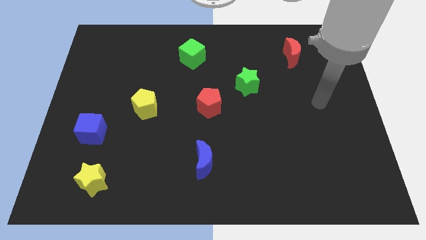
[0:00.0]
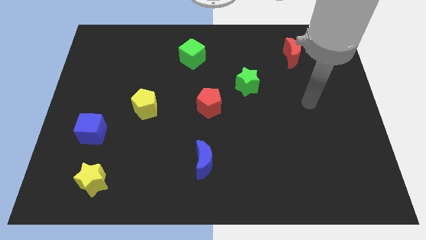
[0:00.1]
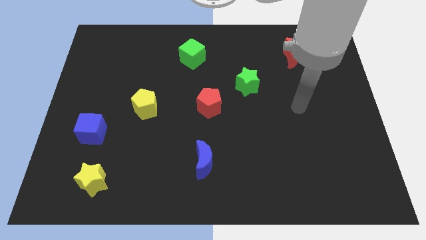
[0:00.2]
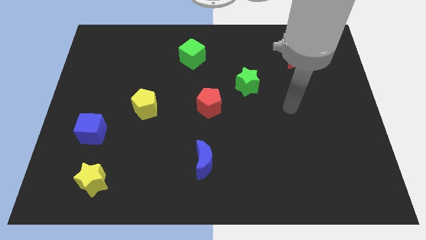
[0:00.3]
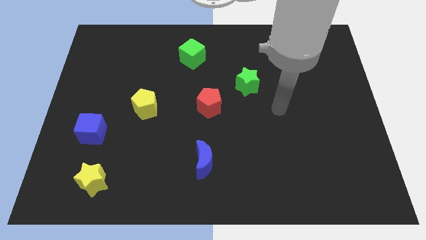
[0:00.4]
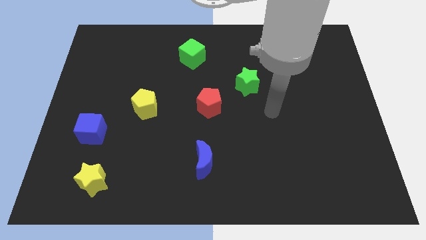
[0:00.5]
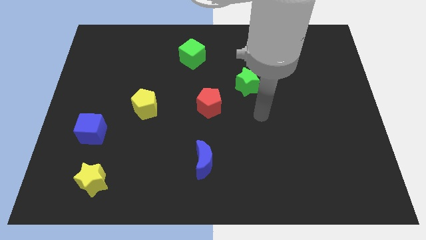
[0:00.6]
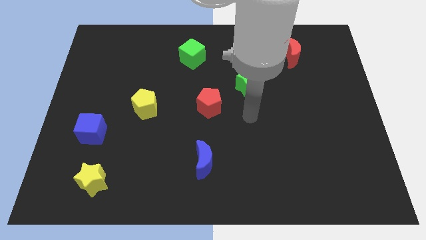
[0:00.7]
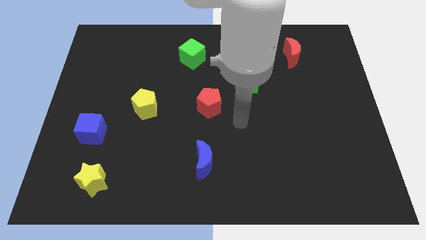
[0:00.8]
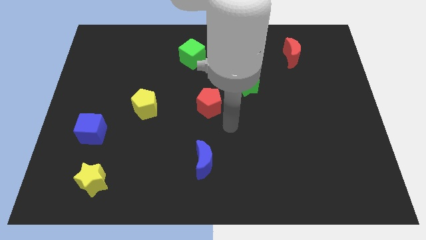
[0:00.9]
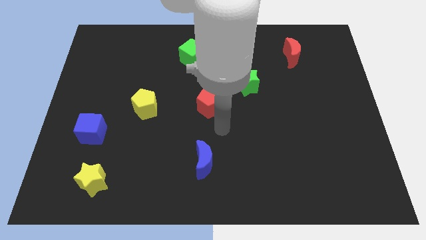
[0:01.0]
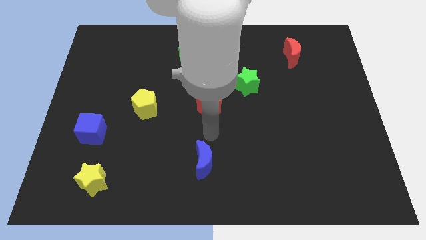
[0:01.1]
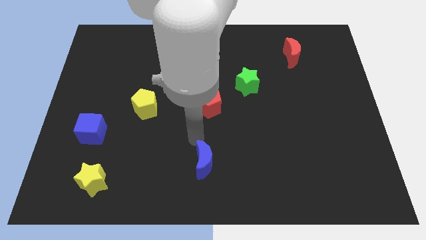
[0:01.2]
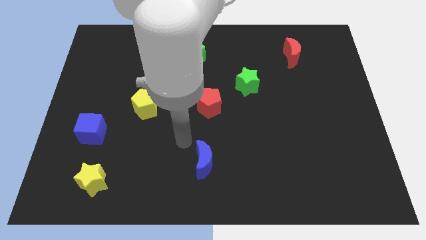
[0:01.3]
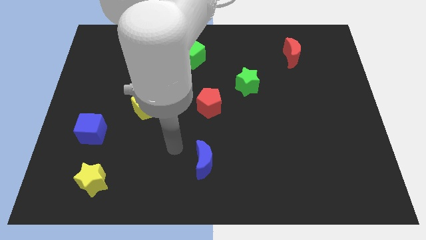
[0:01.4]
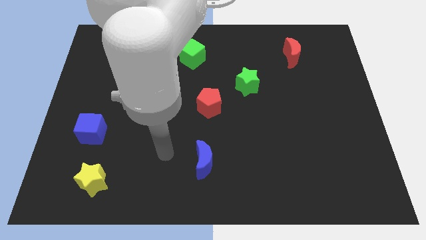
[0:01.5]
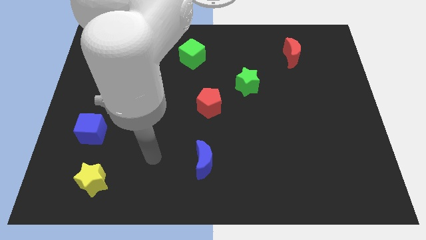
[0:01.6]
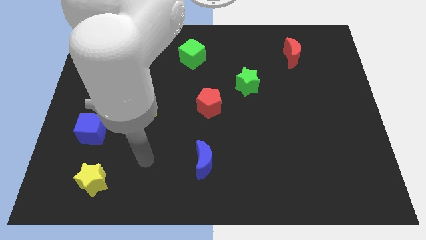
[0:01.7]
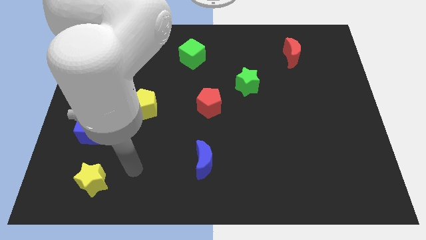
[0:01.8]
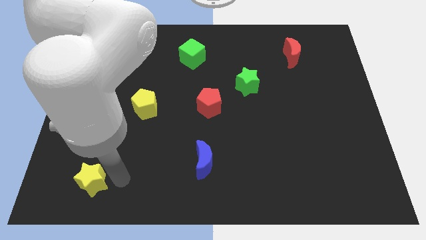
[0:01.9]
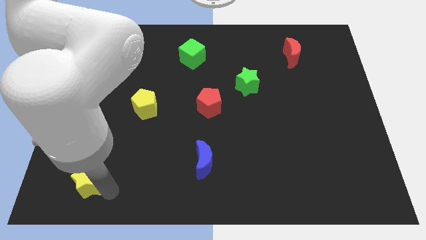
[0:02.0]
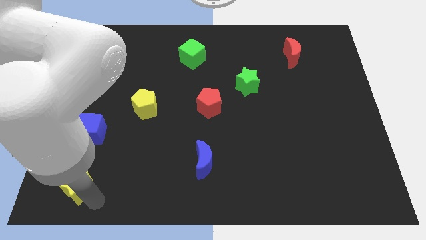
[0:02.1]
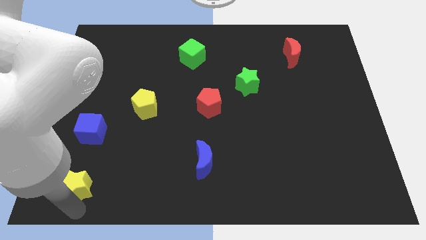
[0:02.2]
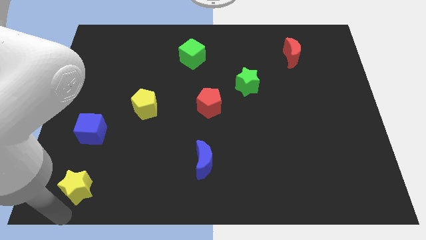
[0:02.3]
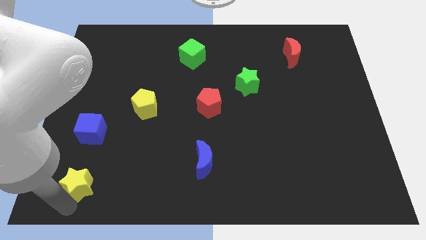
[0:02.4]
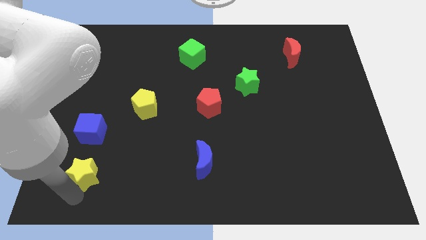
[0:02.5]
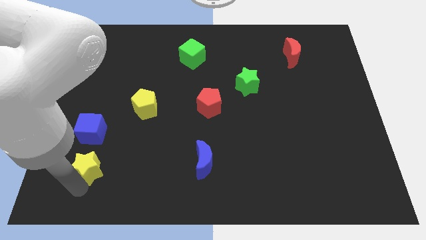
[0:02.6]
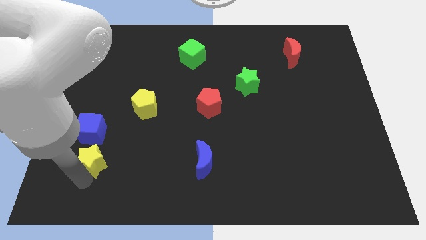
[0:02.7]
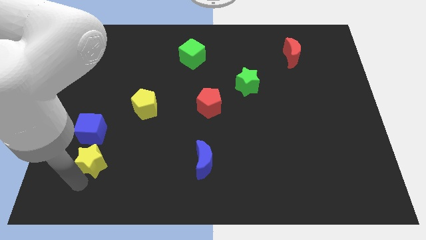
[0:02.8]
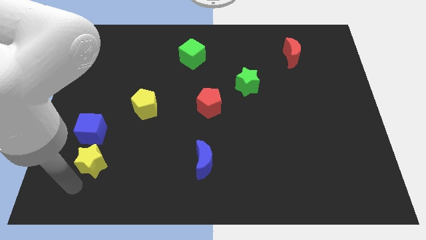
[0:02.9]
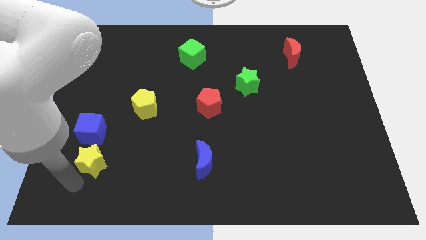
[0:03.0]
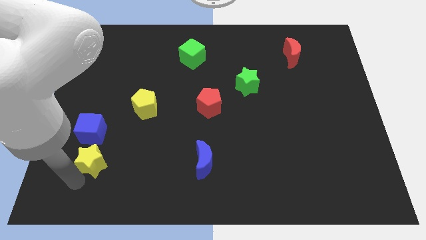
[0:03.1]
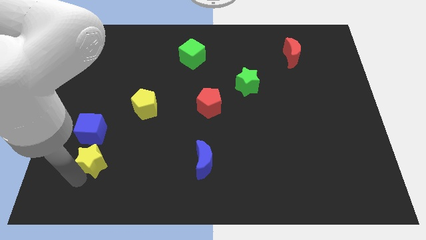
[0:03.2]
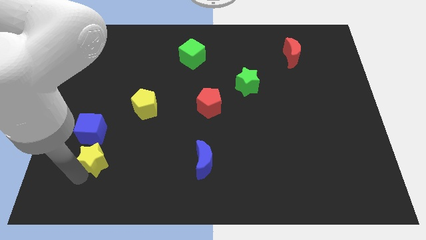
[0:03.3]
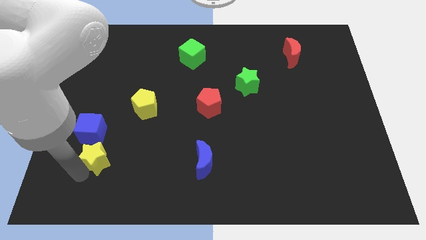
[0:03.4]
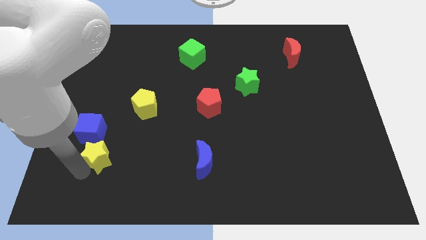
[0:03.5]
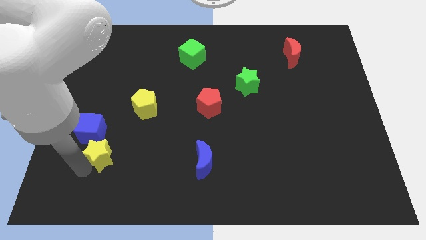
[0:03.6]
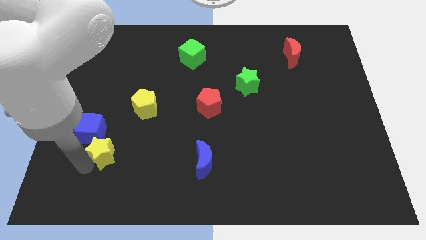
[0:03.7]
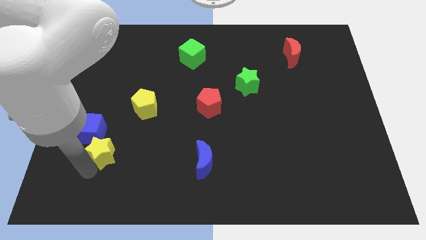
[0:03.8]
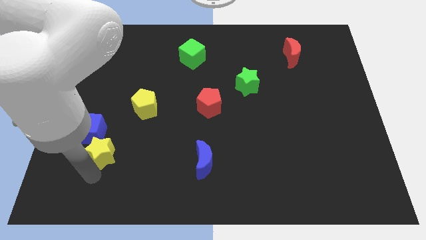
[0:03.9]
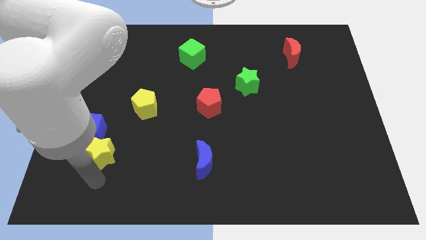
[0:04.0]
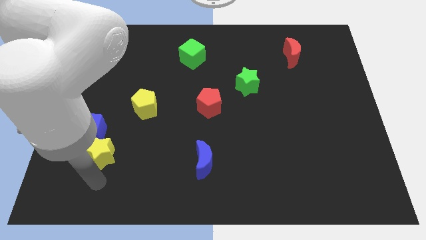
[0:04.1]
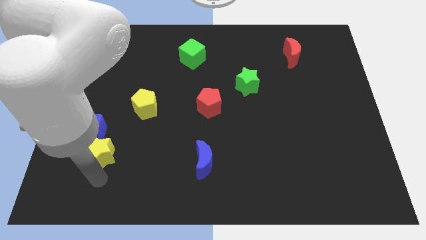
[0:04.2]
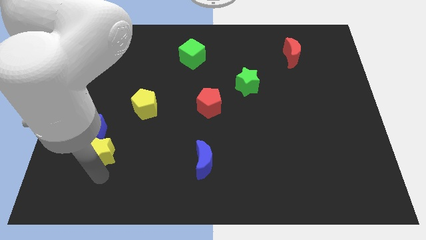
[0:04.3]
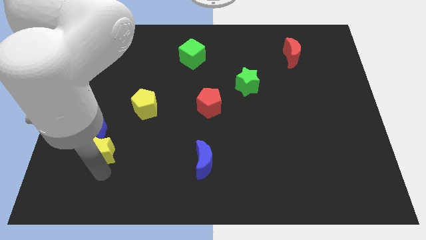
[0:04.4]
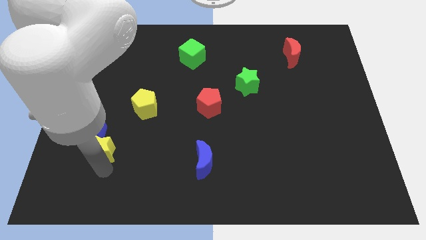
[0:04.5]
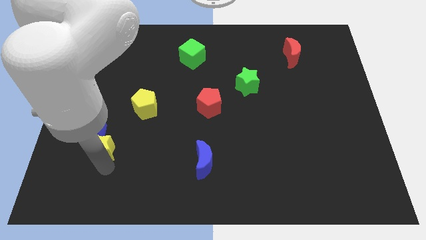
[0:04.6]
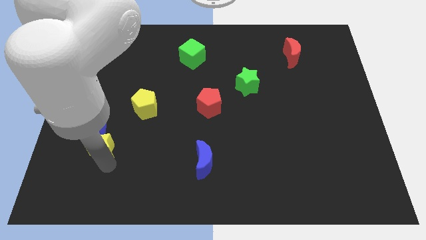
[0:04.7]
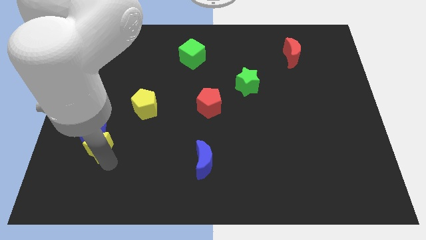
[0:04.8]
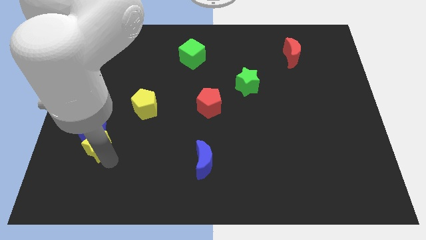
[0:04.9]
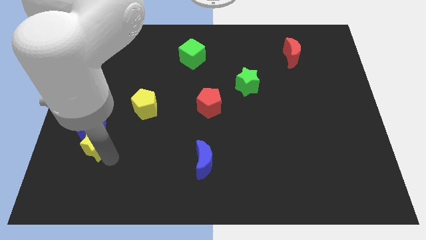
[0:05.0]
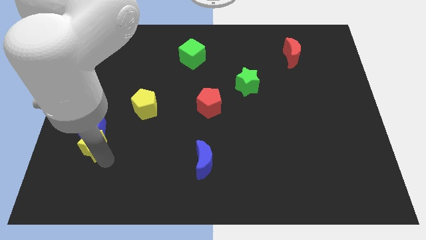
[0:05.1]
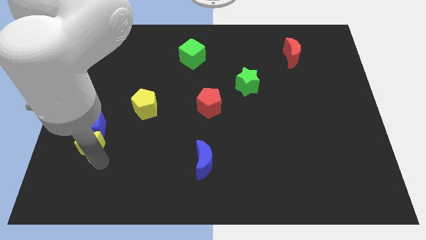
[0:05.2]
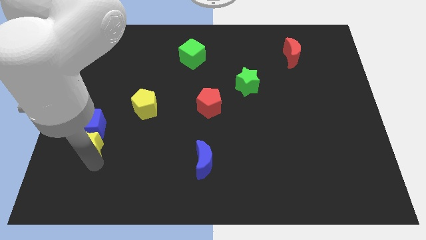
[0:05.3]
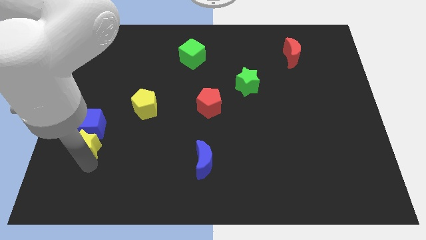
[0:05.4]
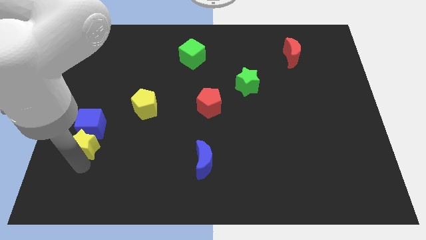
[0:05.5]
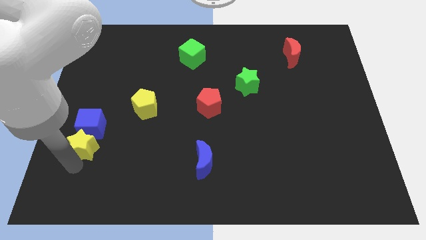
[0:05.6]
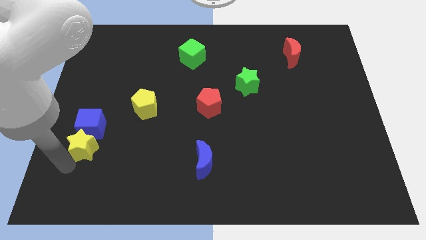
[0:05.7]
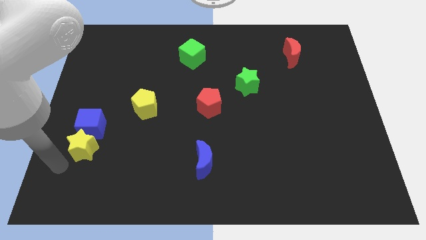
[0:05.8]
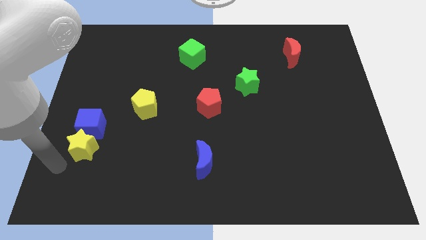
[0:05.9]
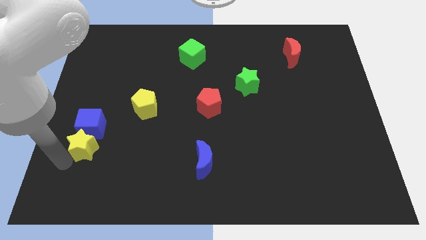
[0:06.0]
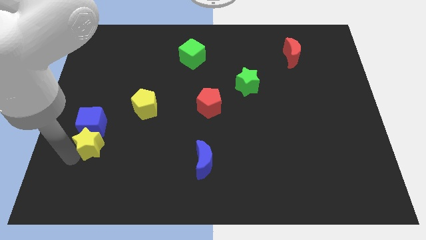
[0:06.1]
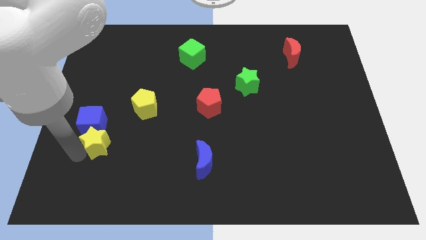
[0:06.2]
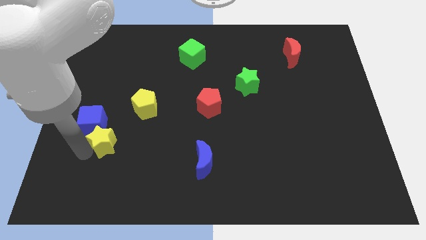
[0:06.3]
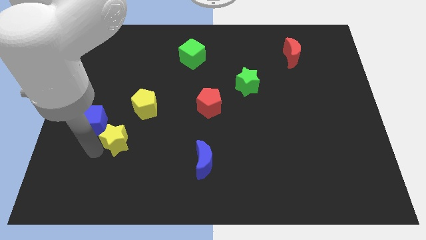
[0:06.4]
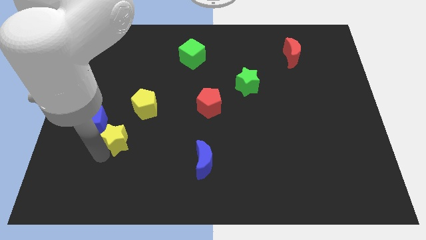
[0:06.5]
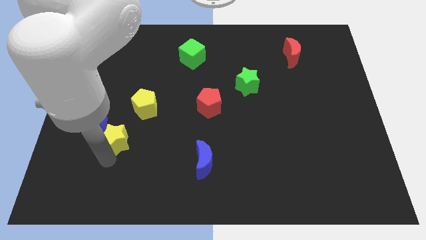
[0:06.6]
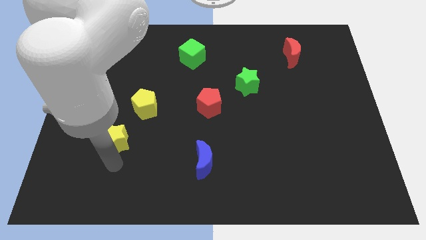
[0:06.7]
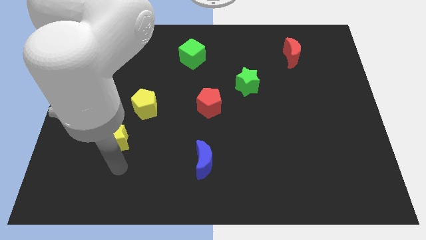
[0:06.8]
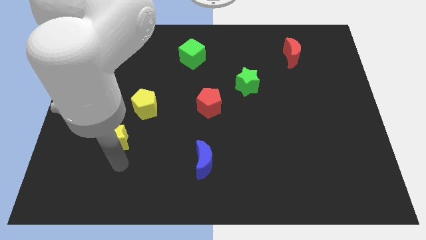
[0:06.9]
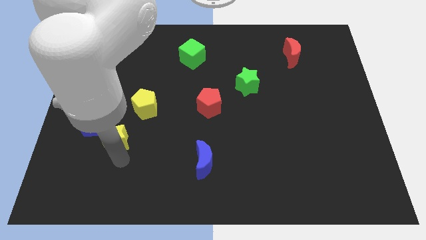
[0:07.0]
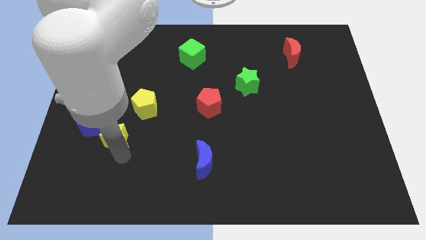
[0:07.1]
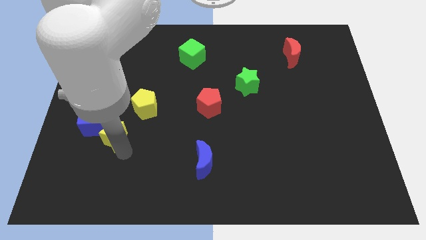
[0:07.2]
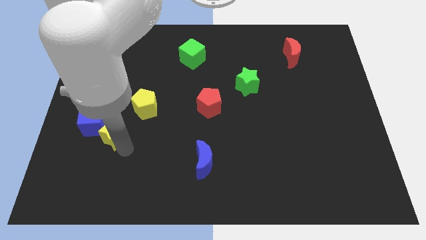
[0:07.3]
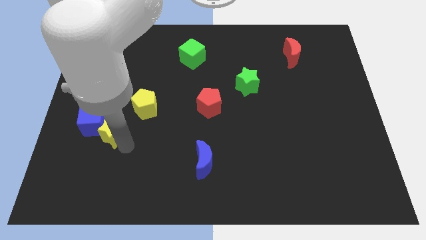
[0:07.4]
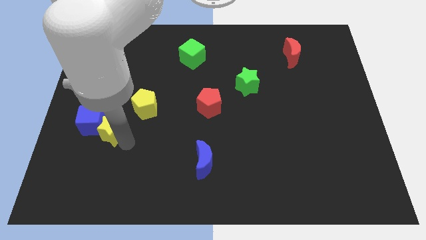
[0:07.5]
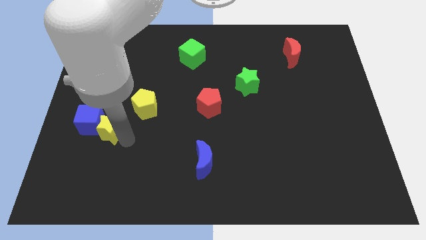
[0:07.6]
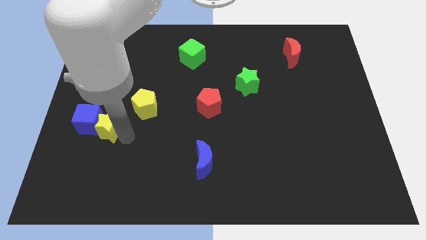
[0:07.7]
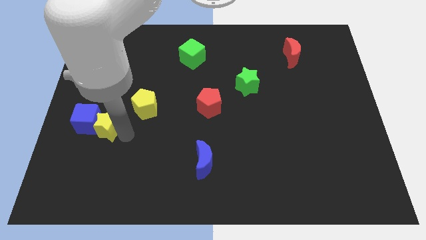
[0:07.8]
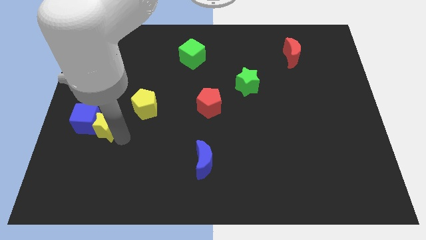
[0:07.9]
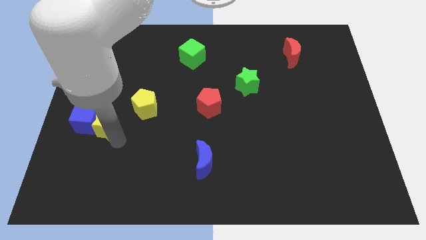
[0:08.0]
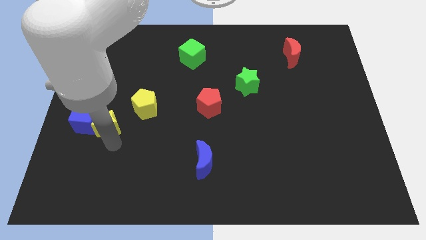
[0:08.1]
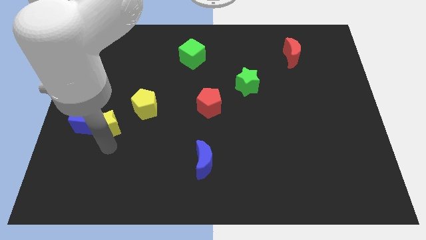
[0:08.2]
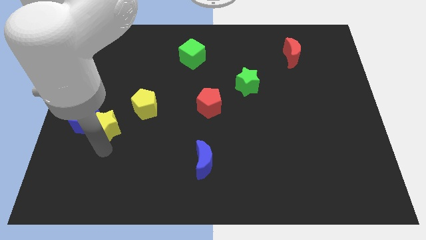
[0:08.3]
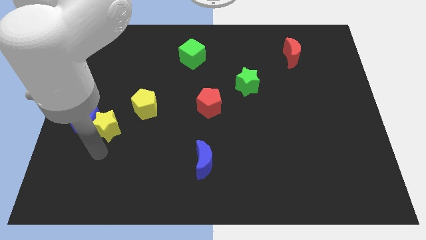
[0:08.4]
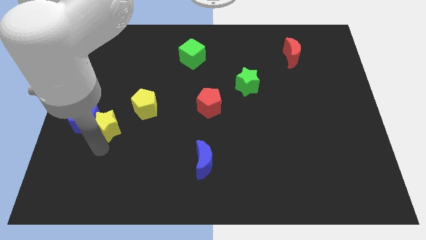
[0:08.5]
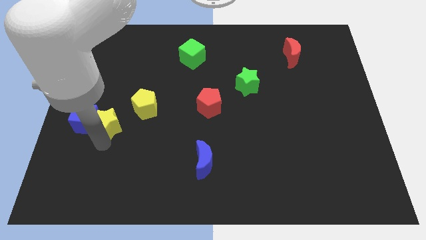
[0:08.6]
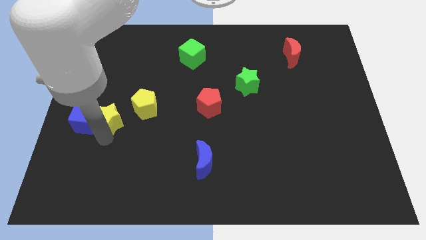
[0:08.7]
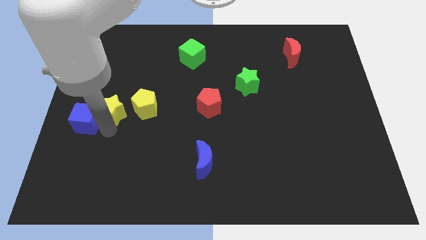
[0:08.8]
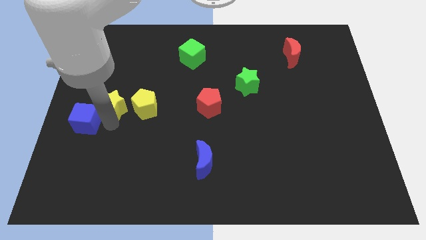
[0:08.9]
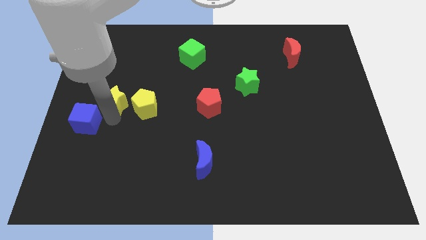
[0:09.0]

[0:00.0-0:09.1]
slide the yellow star up
